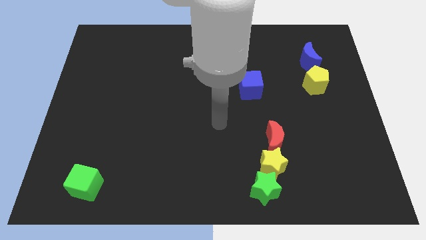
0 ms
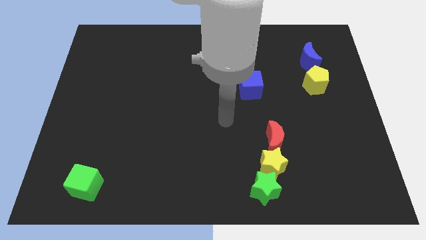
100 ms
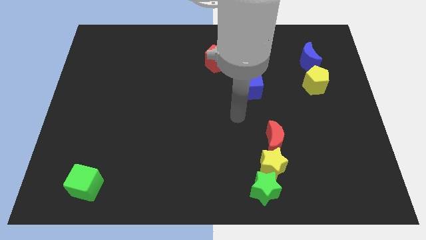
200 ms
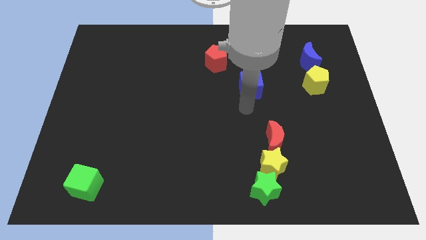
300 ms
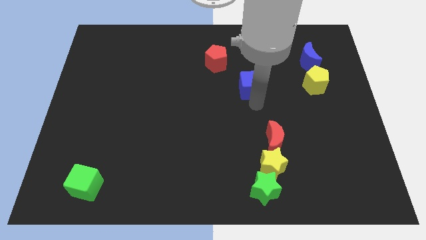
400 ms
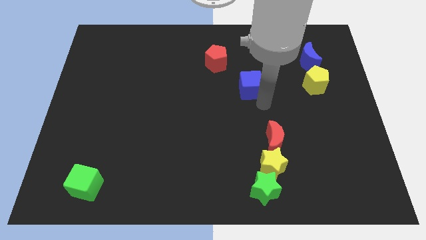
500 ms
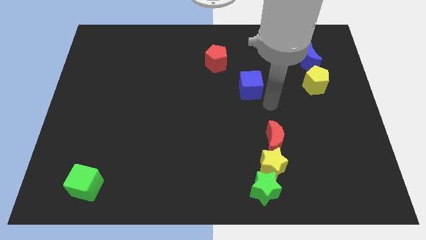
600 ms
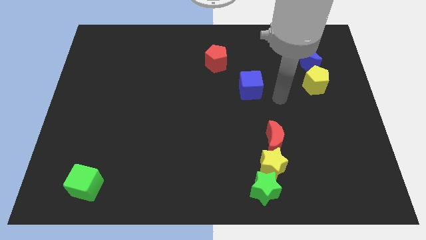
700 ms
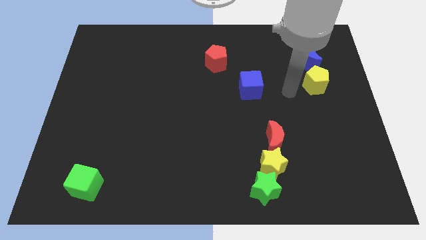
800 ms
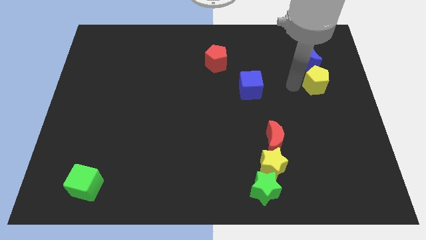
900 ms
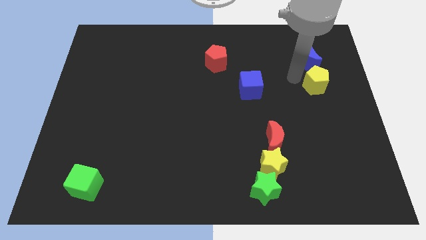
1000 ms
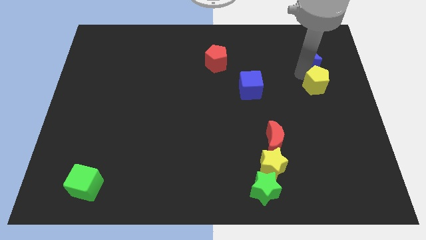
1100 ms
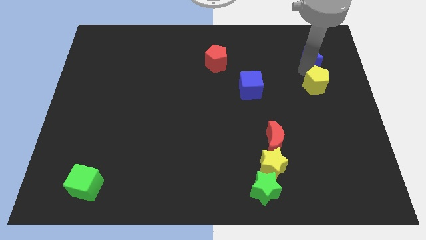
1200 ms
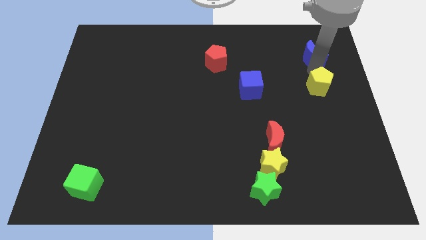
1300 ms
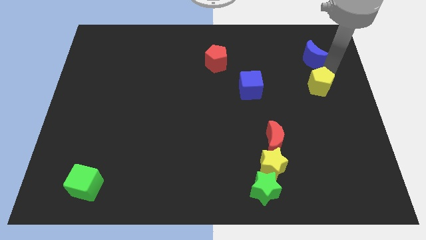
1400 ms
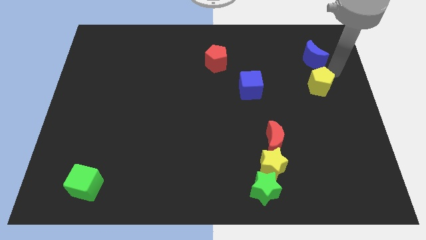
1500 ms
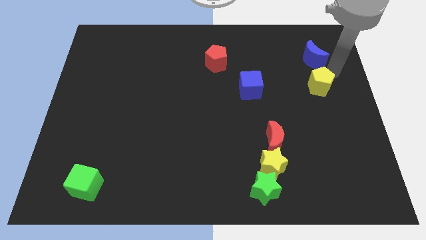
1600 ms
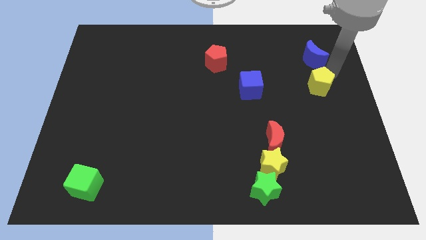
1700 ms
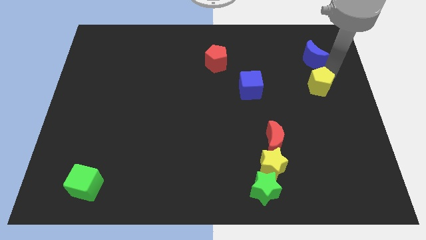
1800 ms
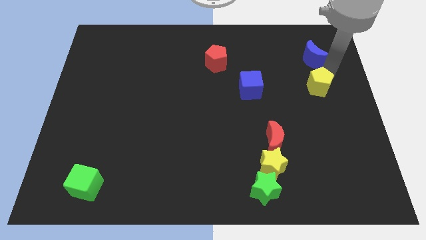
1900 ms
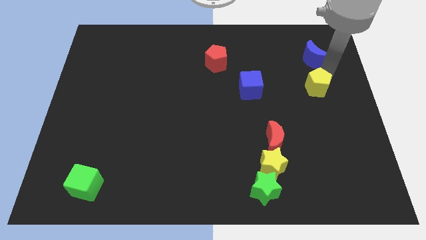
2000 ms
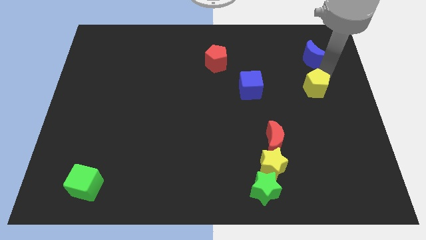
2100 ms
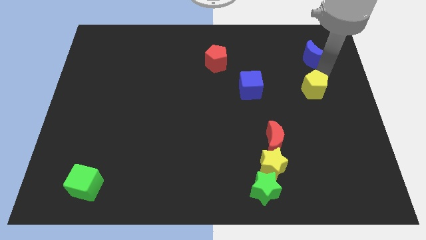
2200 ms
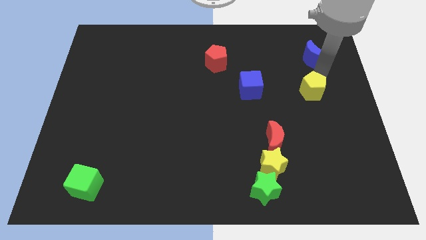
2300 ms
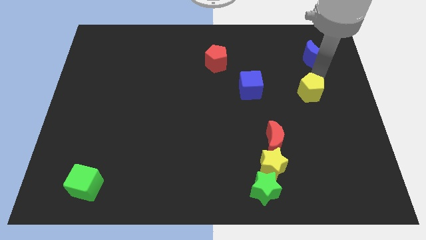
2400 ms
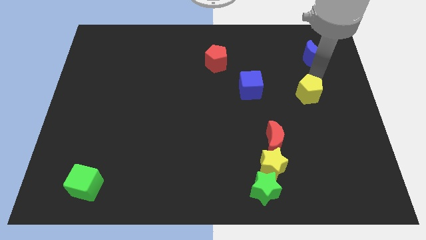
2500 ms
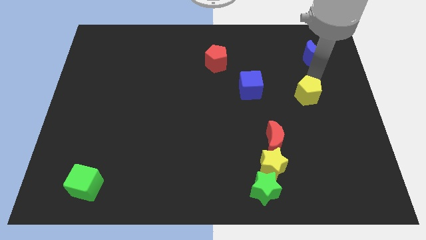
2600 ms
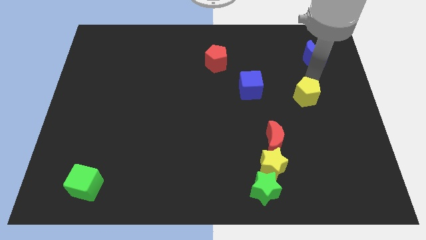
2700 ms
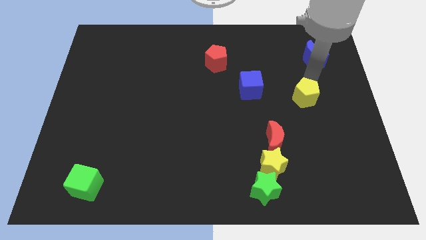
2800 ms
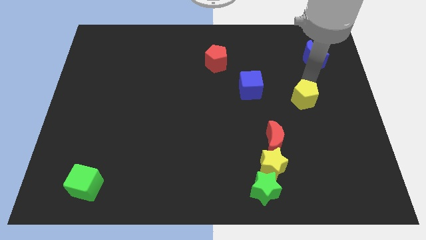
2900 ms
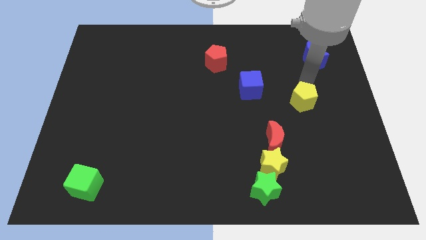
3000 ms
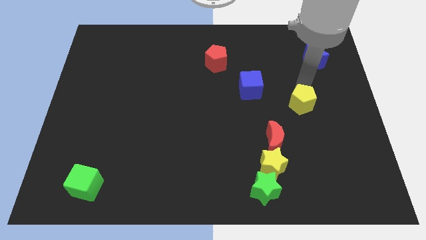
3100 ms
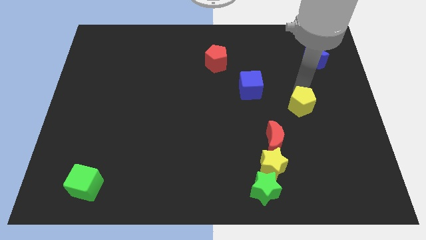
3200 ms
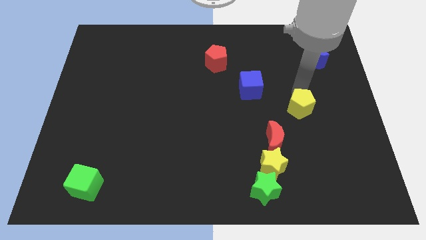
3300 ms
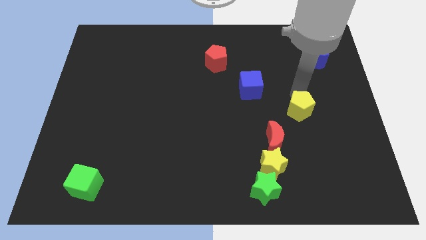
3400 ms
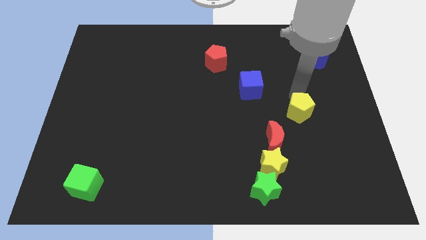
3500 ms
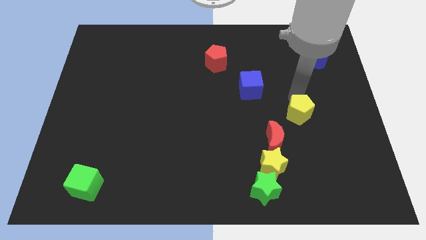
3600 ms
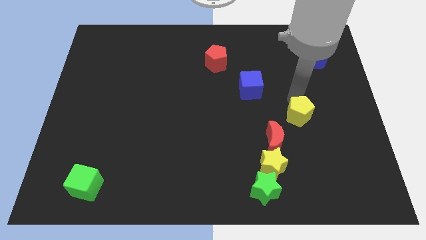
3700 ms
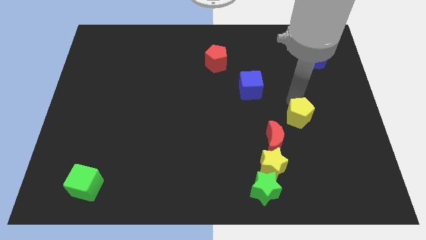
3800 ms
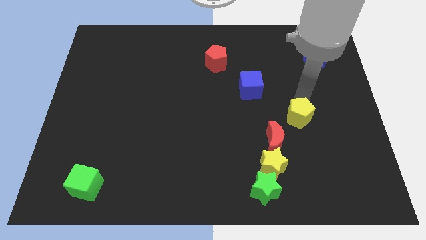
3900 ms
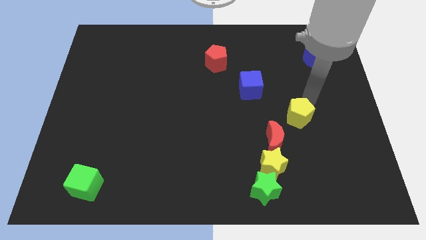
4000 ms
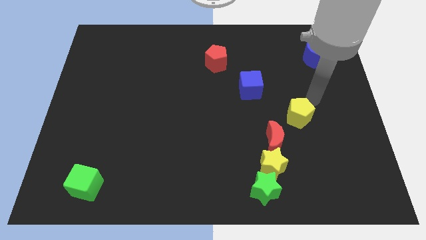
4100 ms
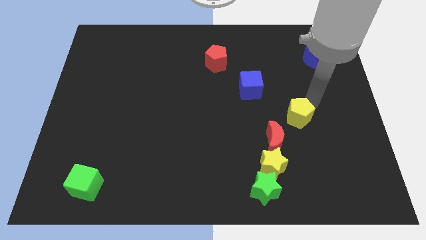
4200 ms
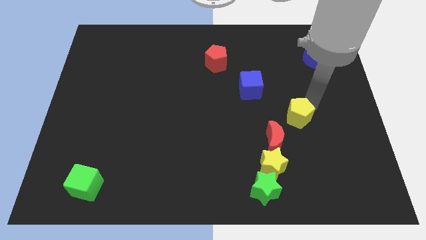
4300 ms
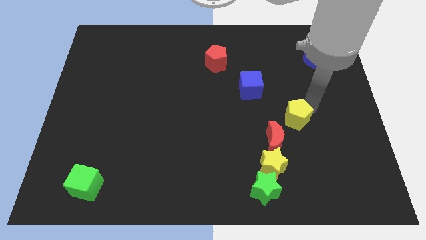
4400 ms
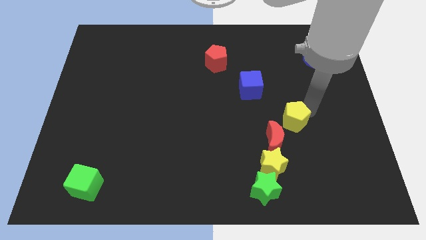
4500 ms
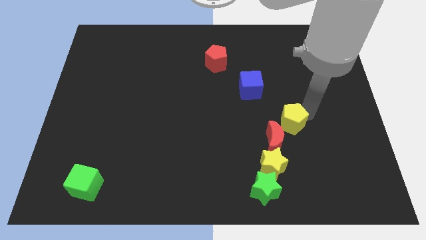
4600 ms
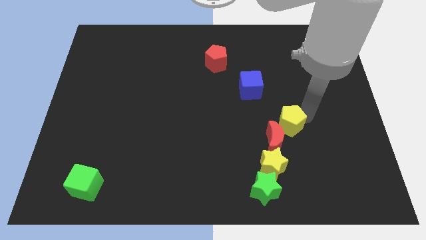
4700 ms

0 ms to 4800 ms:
put the yellow pentagon next to the red moon

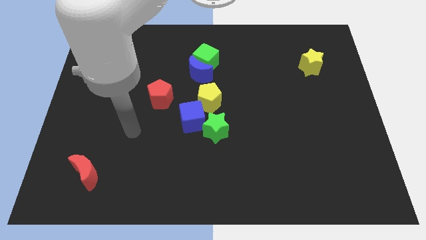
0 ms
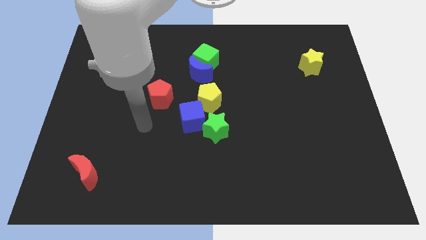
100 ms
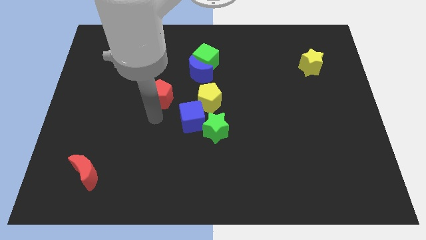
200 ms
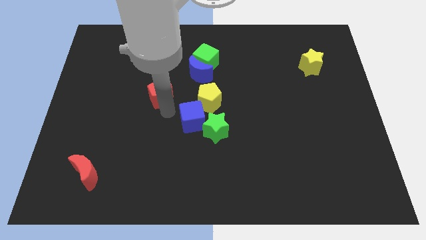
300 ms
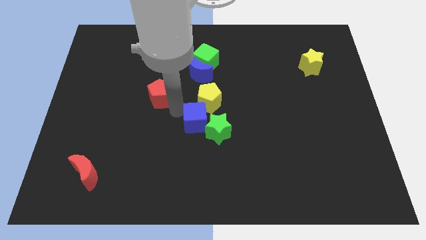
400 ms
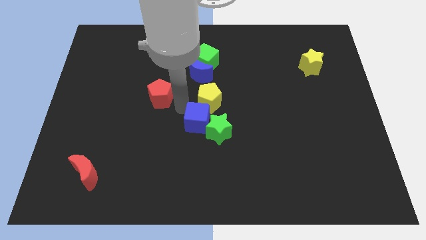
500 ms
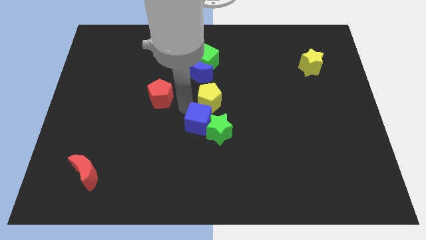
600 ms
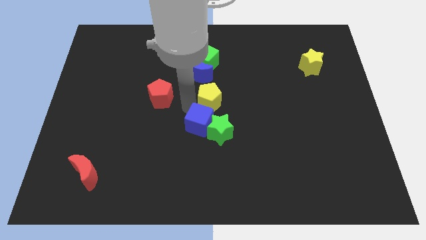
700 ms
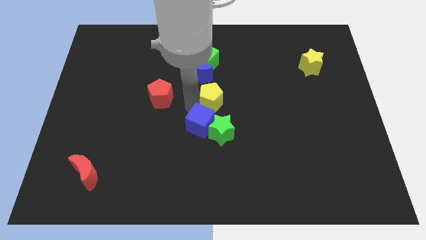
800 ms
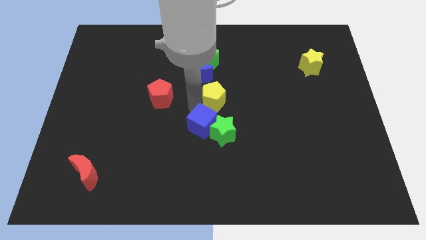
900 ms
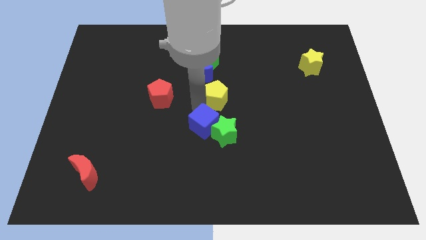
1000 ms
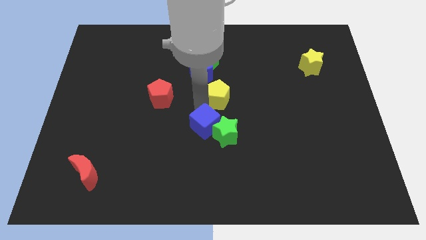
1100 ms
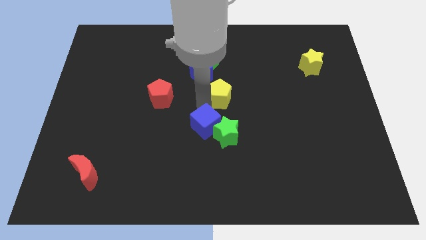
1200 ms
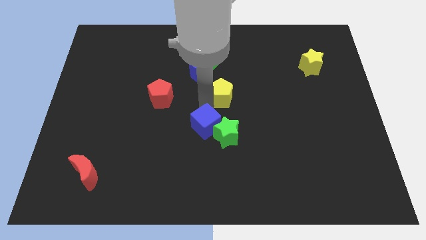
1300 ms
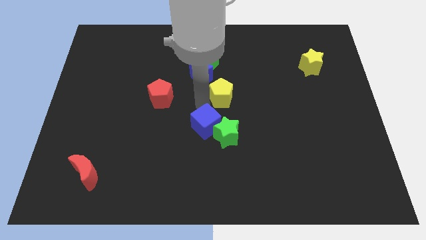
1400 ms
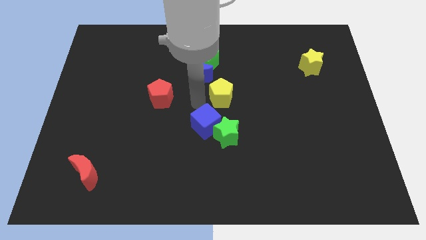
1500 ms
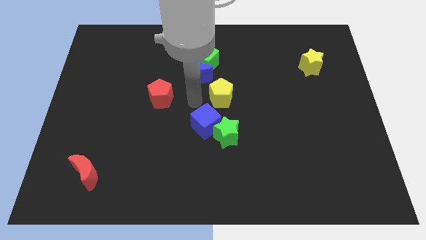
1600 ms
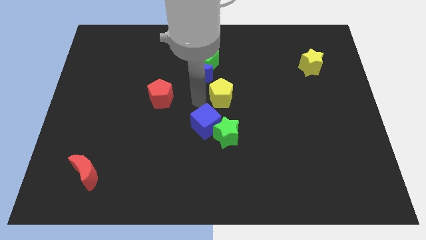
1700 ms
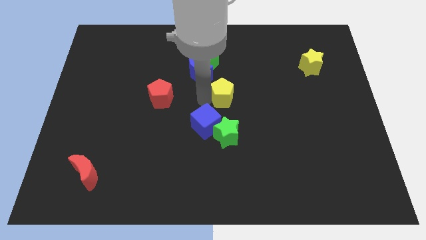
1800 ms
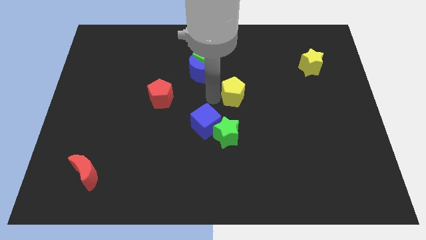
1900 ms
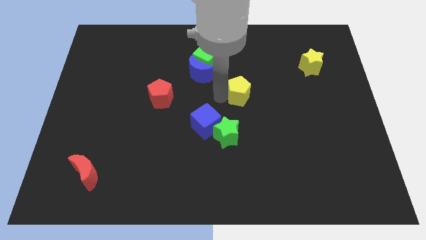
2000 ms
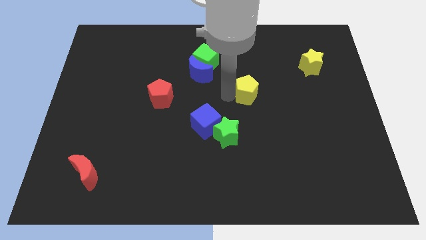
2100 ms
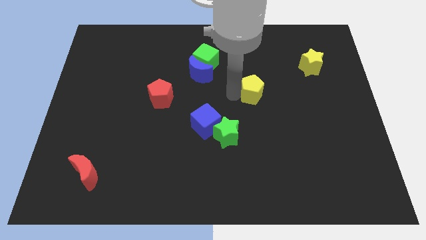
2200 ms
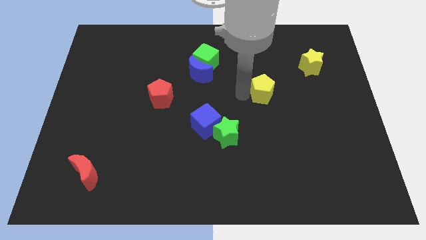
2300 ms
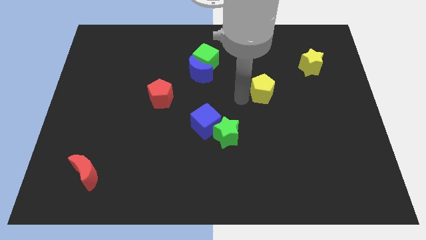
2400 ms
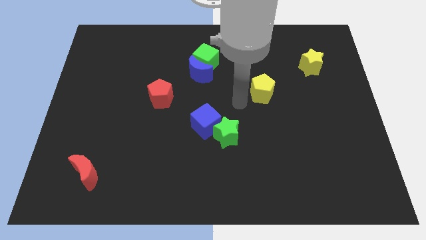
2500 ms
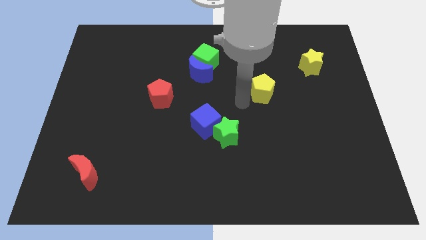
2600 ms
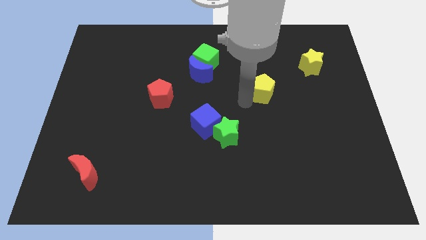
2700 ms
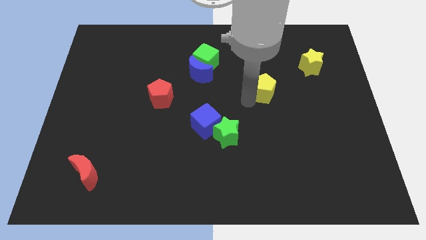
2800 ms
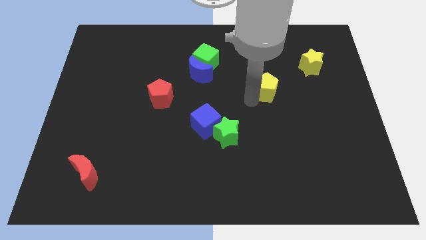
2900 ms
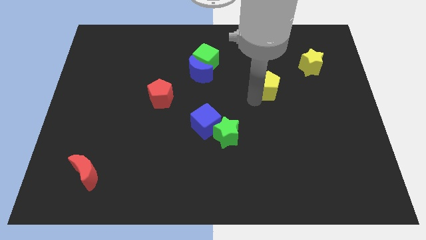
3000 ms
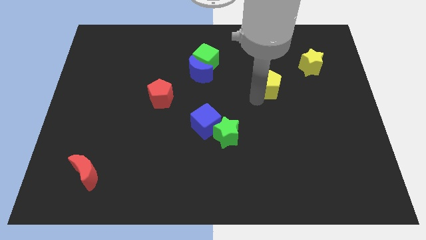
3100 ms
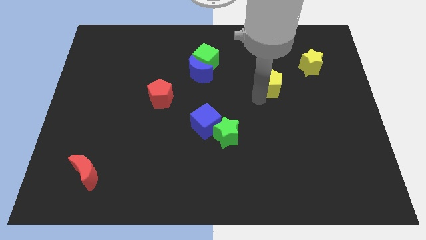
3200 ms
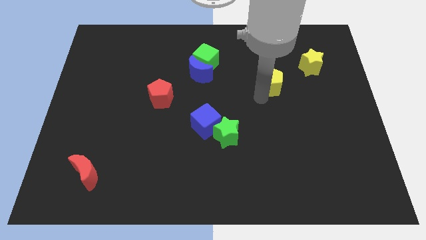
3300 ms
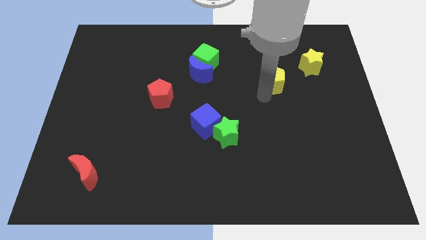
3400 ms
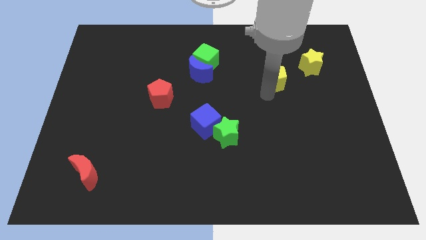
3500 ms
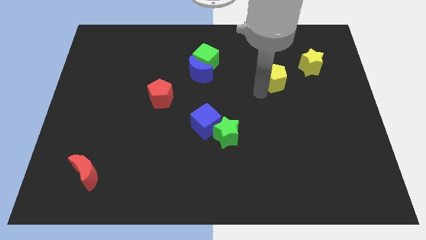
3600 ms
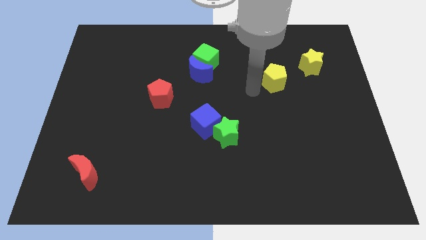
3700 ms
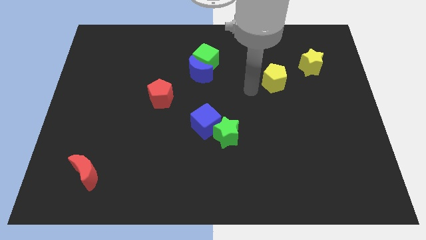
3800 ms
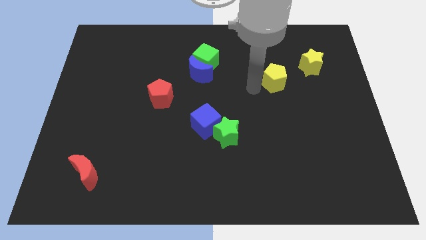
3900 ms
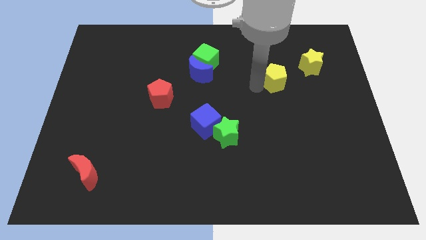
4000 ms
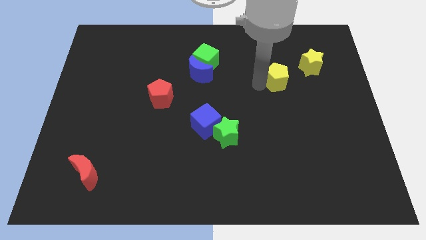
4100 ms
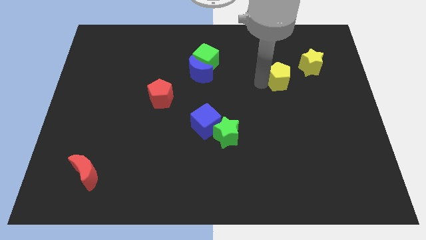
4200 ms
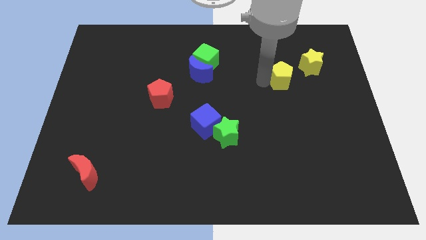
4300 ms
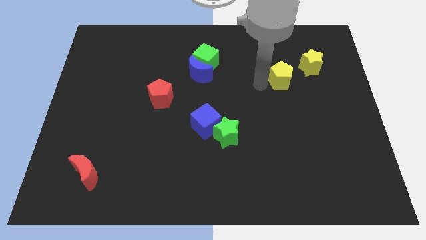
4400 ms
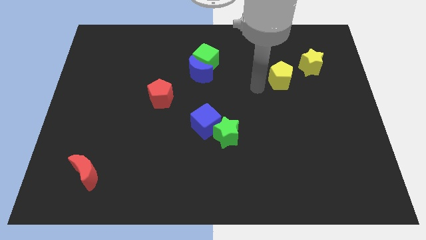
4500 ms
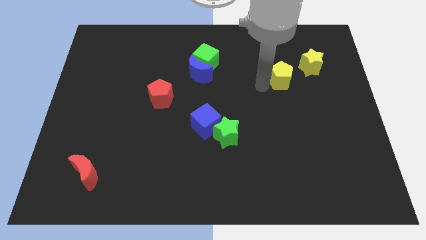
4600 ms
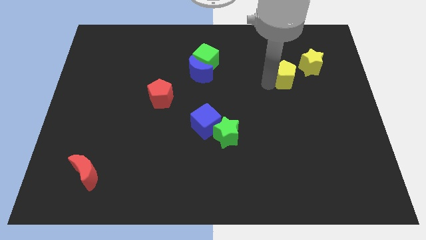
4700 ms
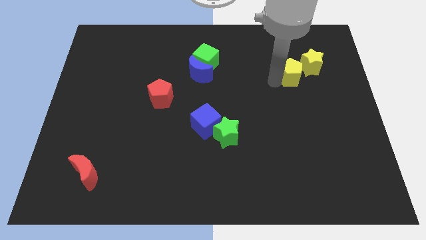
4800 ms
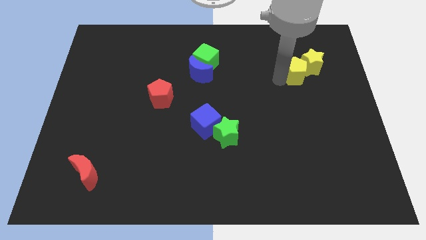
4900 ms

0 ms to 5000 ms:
slide the yellow pentagon close to the yellow star
